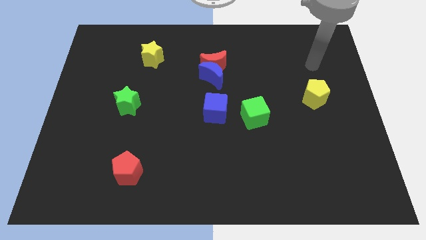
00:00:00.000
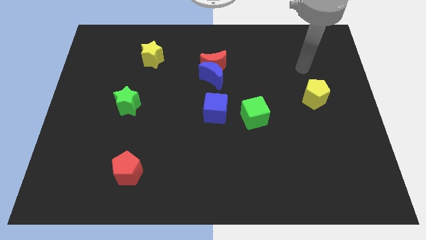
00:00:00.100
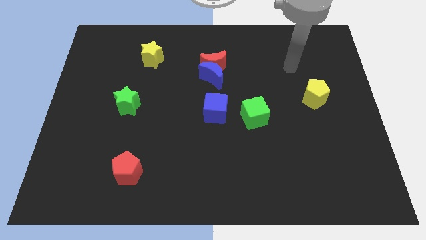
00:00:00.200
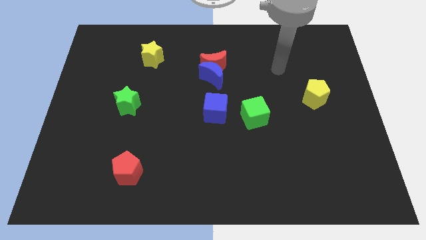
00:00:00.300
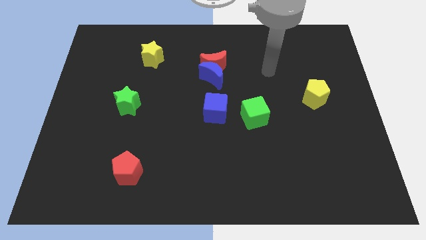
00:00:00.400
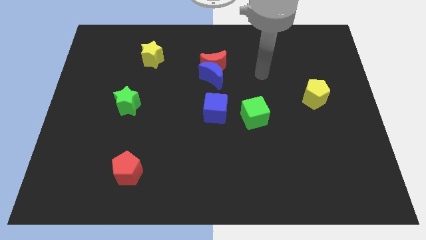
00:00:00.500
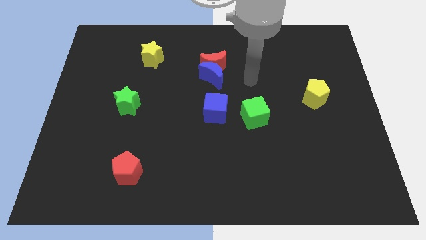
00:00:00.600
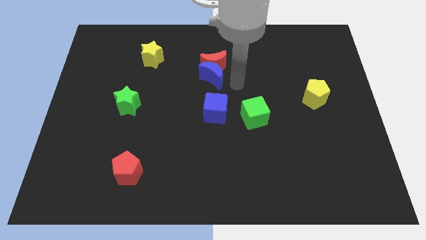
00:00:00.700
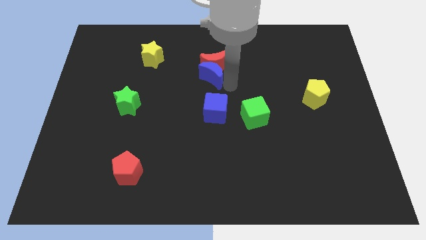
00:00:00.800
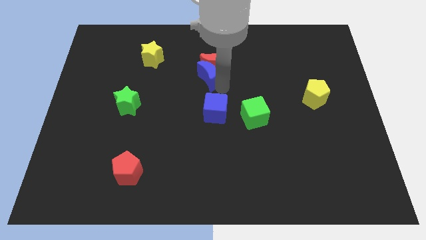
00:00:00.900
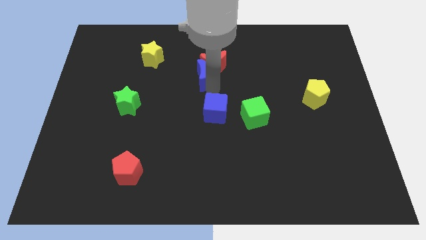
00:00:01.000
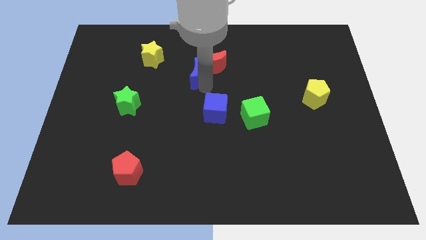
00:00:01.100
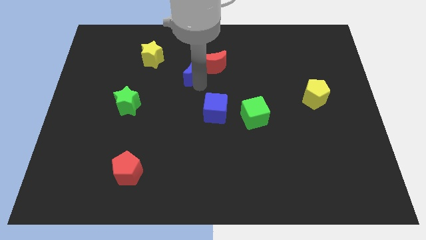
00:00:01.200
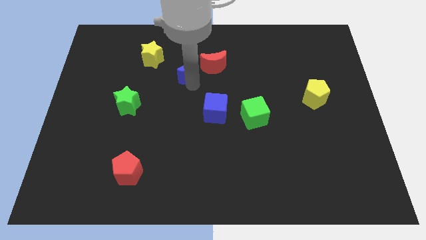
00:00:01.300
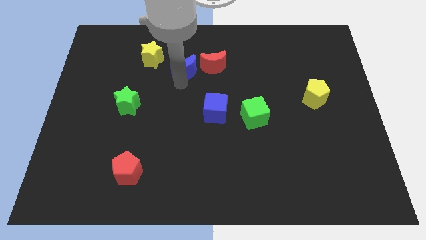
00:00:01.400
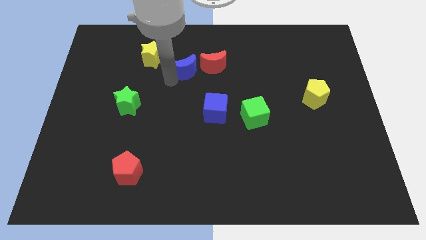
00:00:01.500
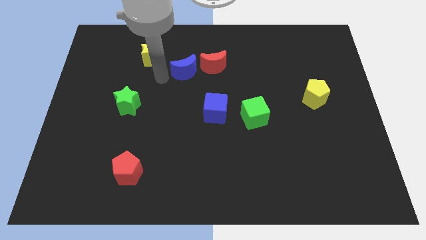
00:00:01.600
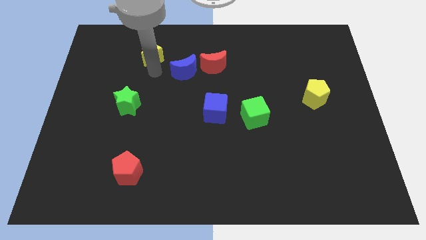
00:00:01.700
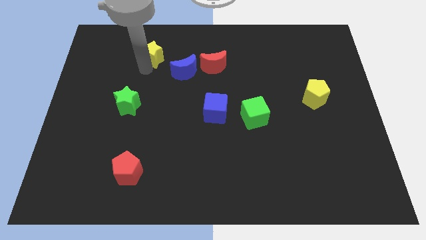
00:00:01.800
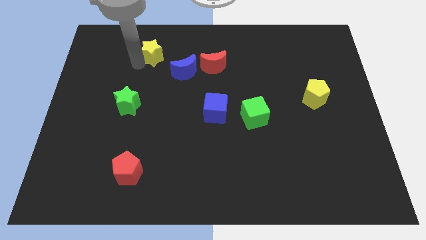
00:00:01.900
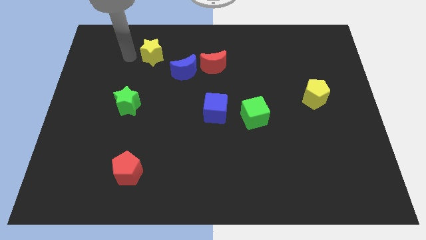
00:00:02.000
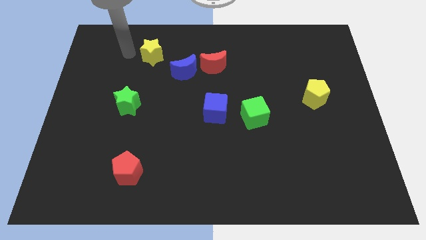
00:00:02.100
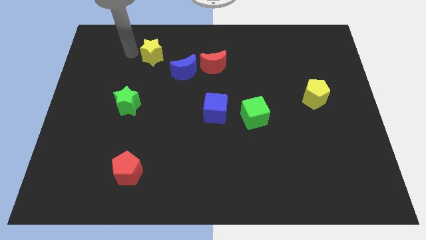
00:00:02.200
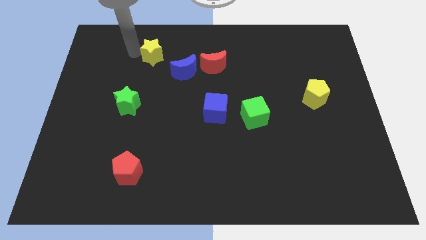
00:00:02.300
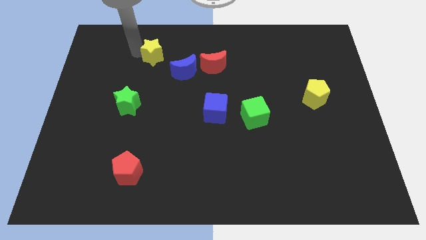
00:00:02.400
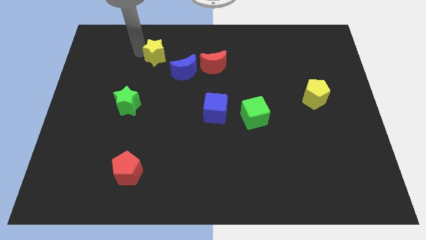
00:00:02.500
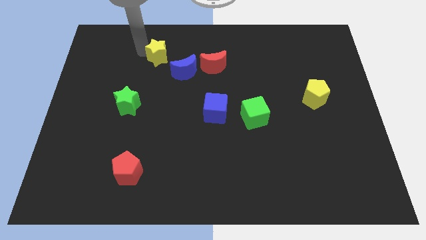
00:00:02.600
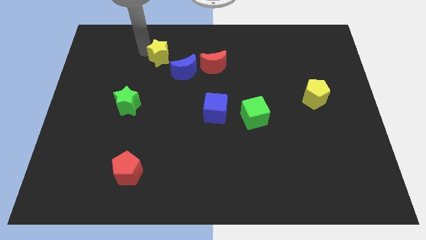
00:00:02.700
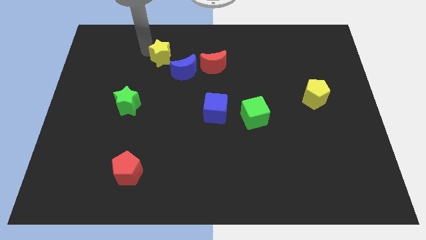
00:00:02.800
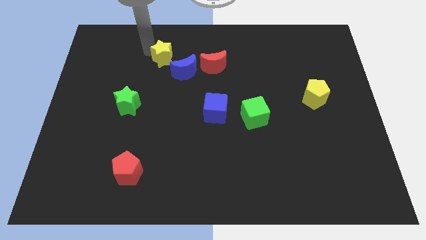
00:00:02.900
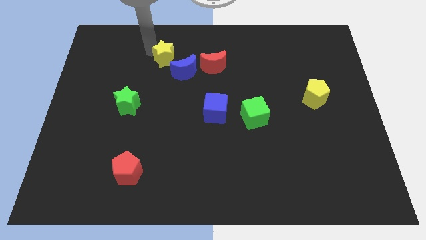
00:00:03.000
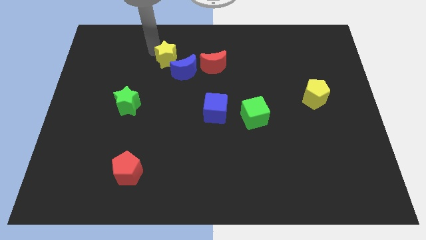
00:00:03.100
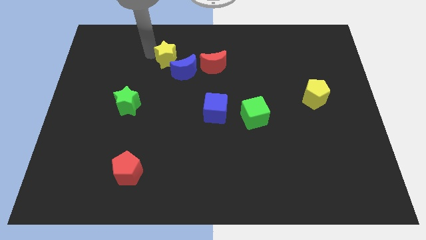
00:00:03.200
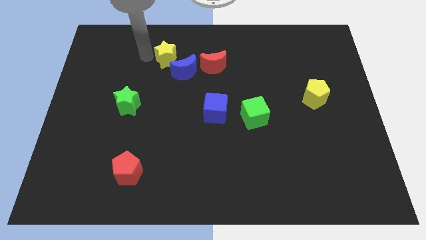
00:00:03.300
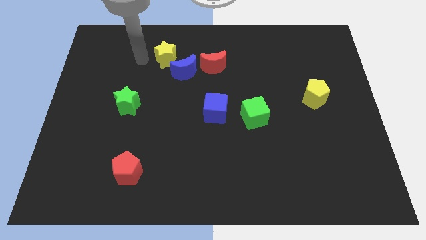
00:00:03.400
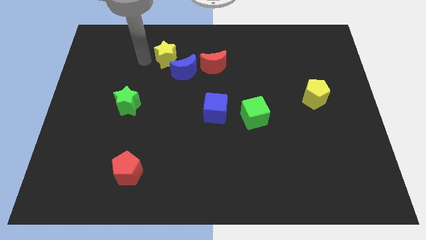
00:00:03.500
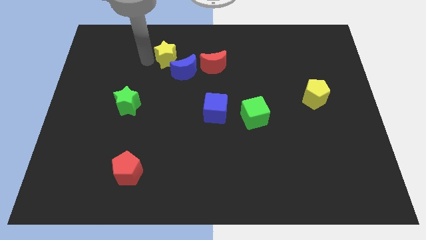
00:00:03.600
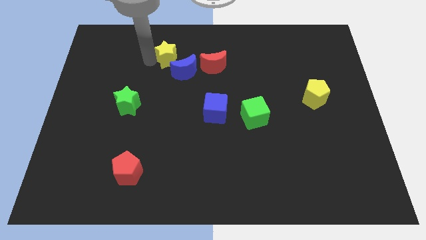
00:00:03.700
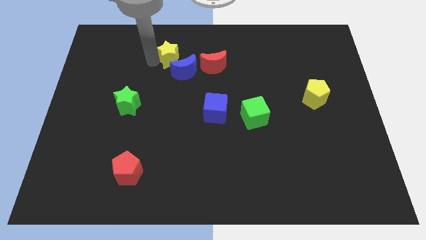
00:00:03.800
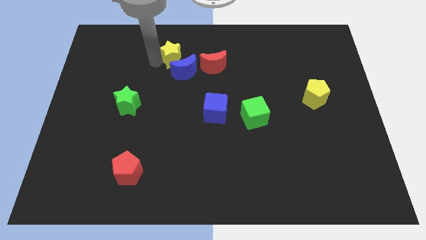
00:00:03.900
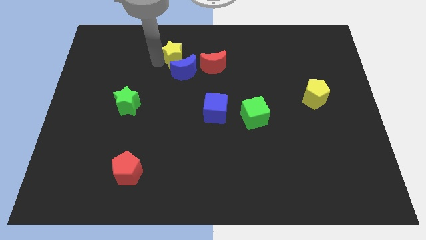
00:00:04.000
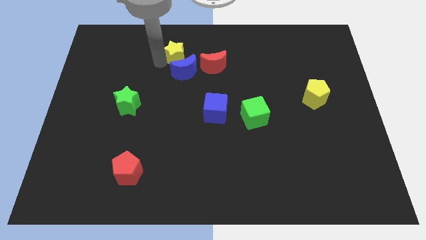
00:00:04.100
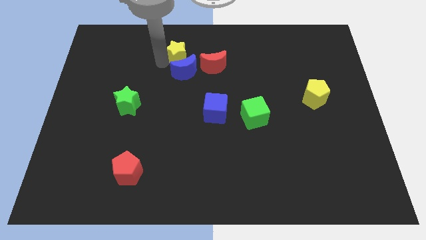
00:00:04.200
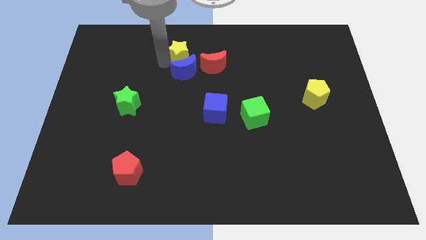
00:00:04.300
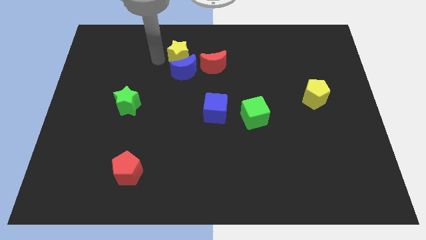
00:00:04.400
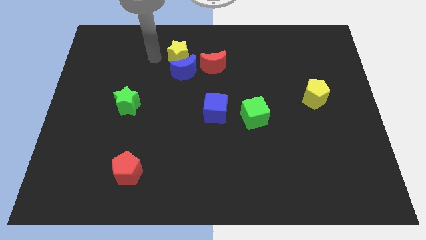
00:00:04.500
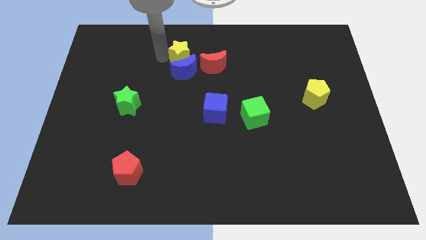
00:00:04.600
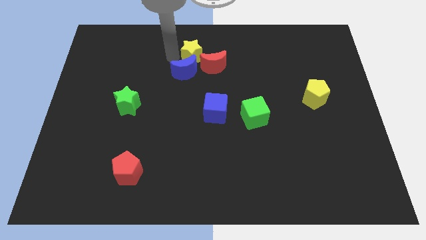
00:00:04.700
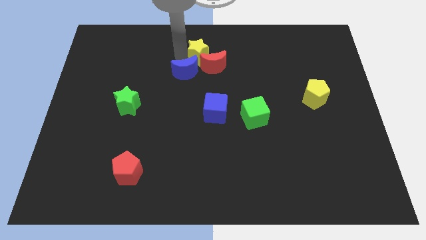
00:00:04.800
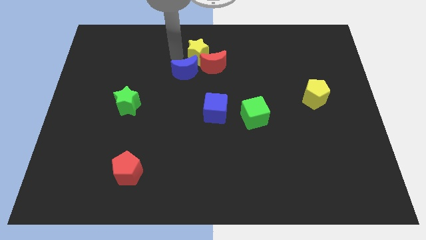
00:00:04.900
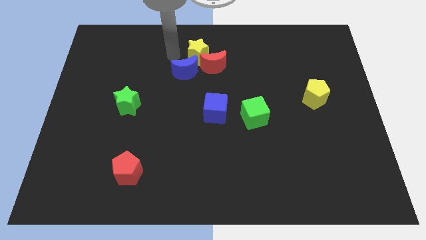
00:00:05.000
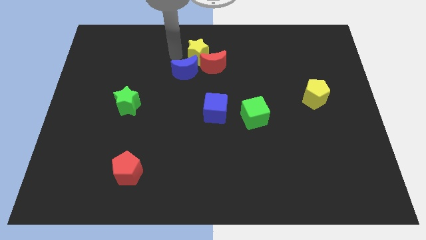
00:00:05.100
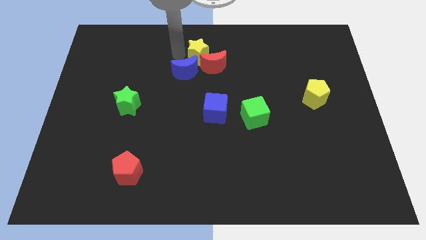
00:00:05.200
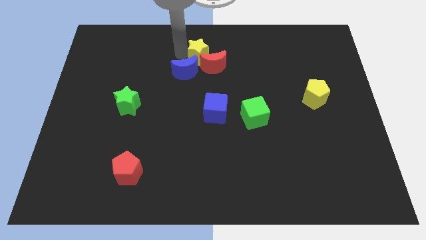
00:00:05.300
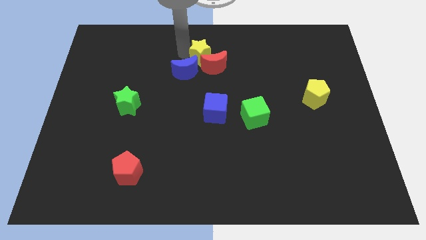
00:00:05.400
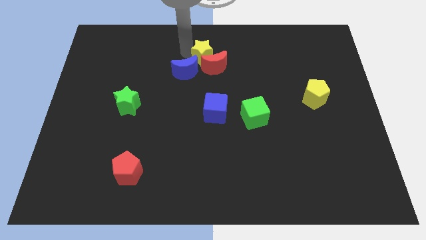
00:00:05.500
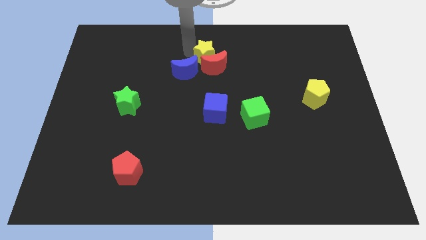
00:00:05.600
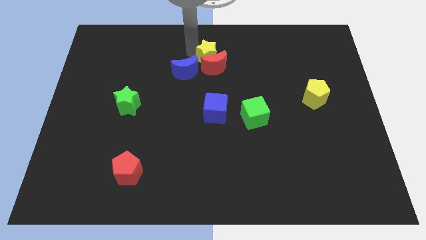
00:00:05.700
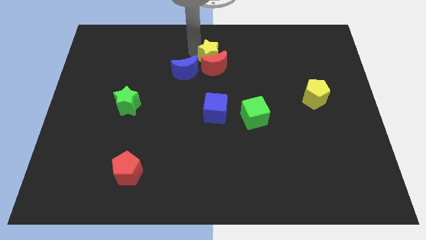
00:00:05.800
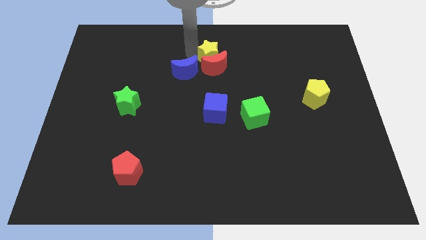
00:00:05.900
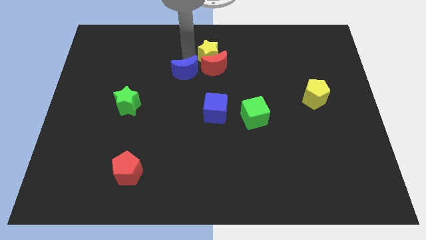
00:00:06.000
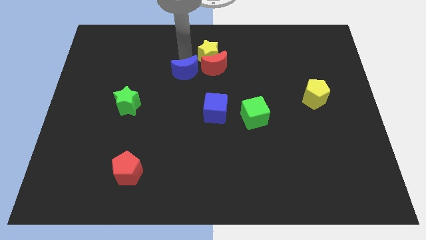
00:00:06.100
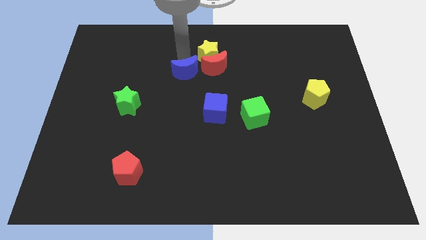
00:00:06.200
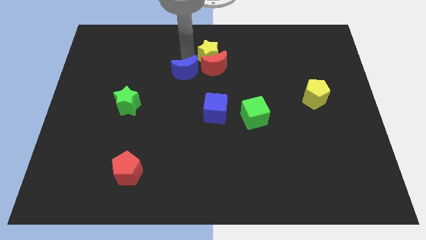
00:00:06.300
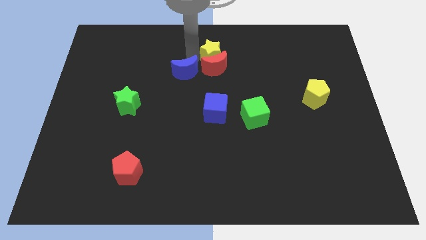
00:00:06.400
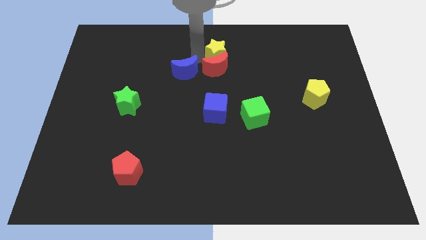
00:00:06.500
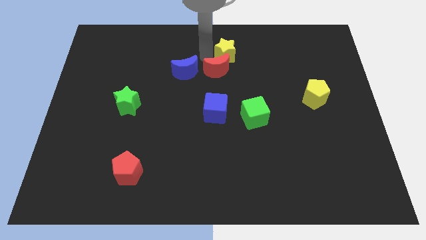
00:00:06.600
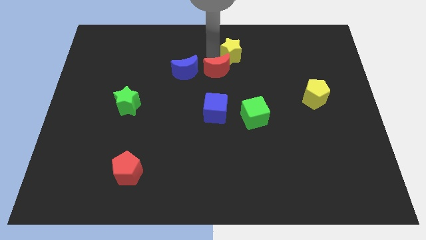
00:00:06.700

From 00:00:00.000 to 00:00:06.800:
move the yellow star right

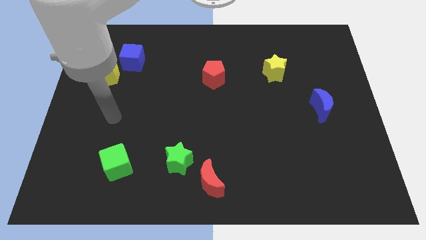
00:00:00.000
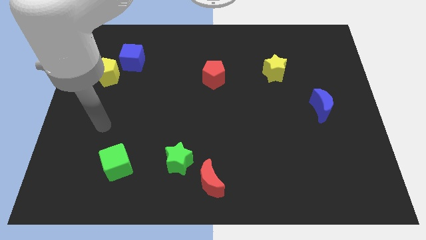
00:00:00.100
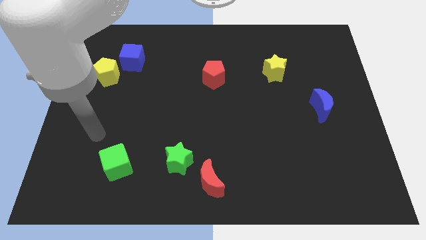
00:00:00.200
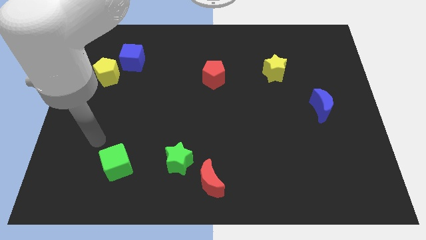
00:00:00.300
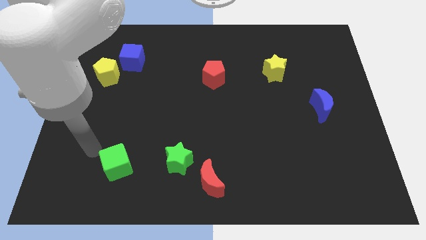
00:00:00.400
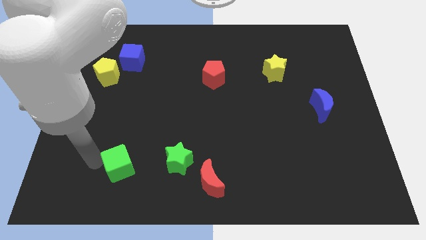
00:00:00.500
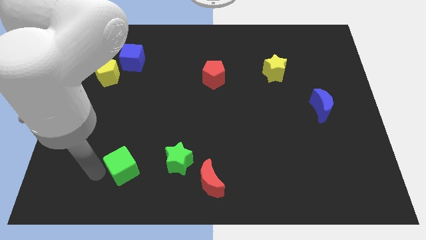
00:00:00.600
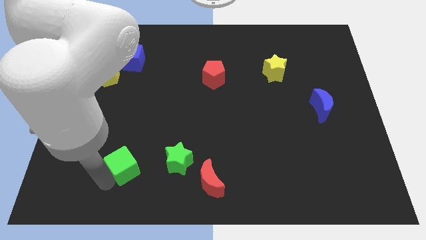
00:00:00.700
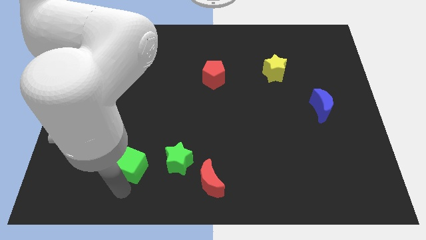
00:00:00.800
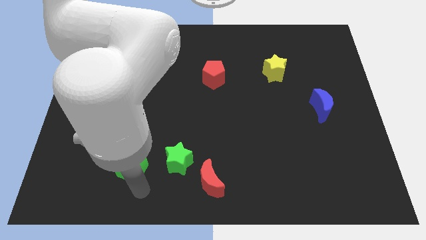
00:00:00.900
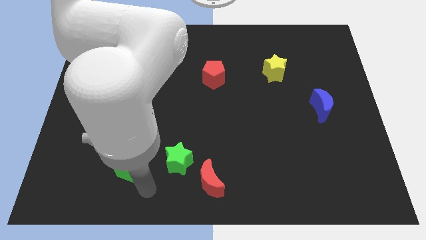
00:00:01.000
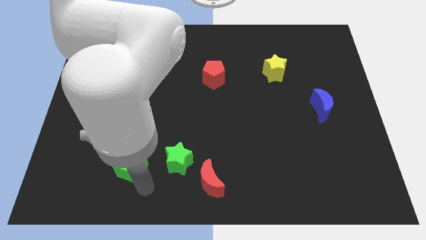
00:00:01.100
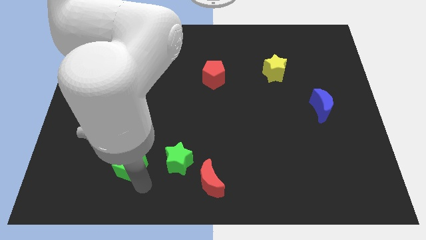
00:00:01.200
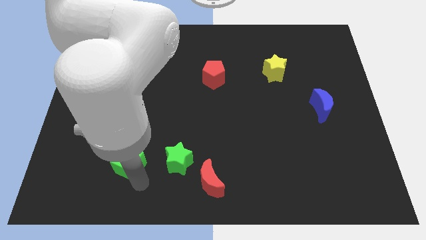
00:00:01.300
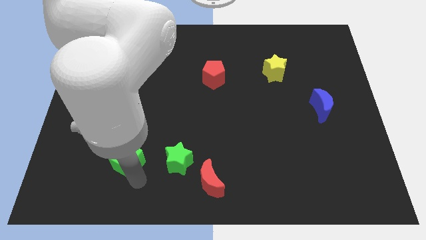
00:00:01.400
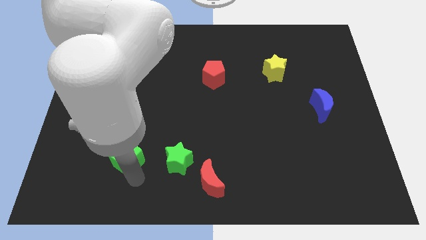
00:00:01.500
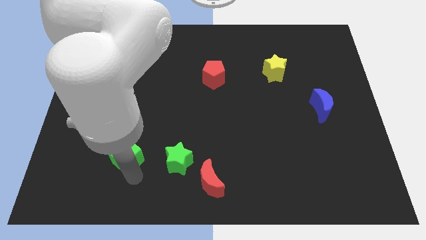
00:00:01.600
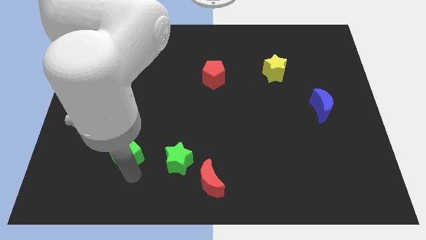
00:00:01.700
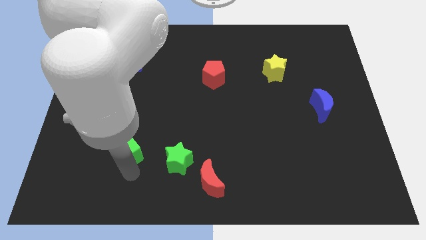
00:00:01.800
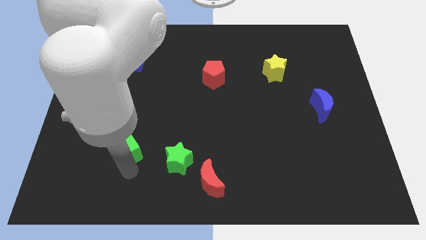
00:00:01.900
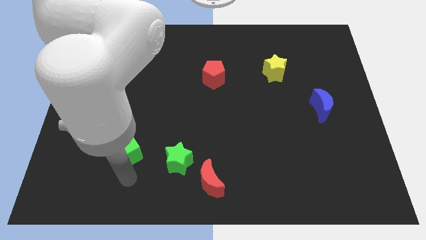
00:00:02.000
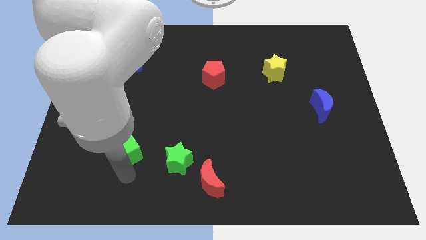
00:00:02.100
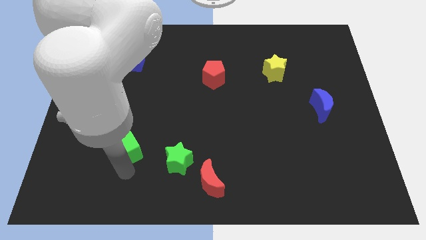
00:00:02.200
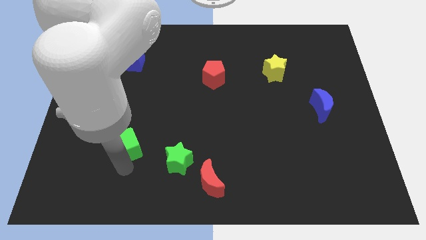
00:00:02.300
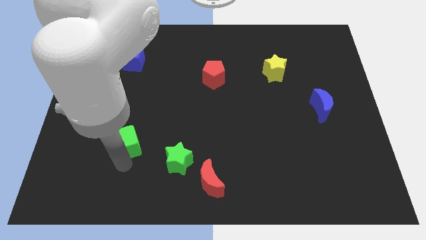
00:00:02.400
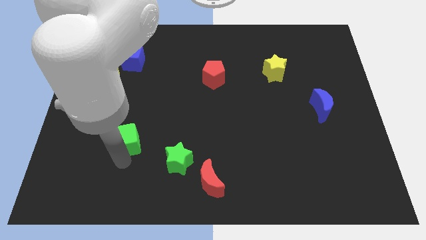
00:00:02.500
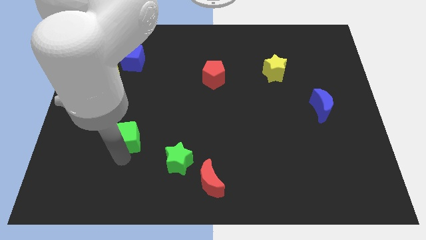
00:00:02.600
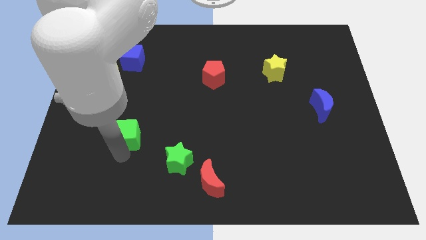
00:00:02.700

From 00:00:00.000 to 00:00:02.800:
slightly slide the green cube upwards
